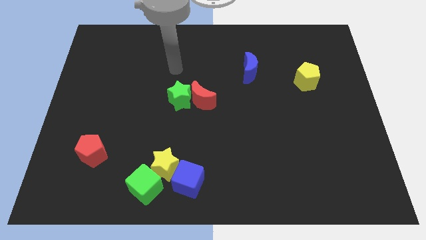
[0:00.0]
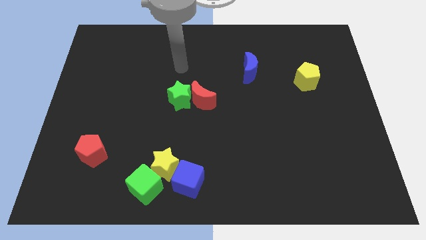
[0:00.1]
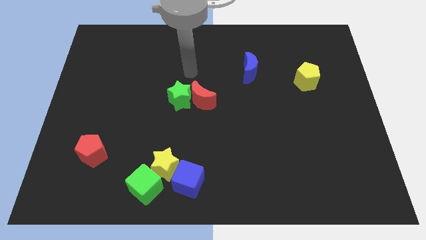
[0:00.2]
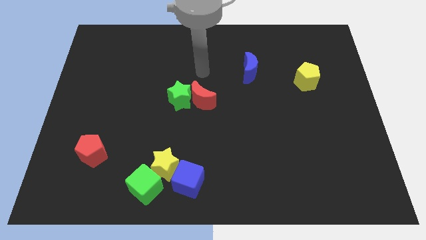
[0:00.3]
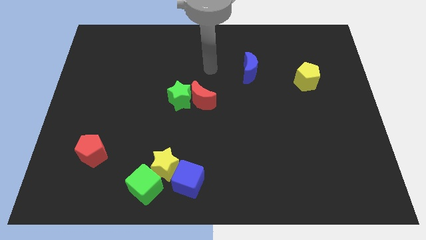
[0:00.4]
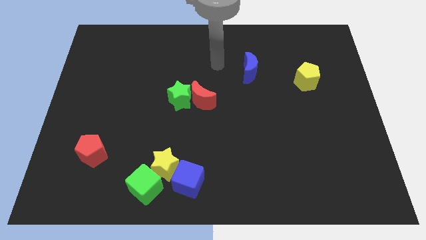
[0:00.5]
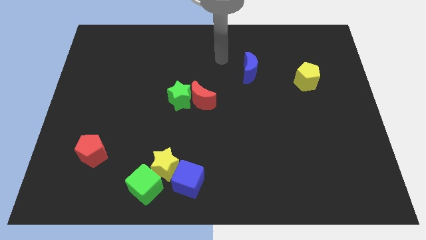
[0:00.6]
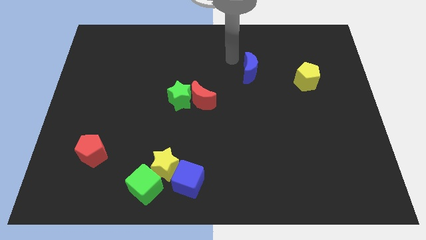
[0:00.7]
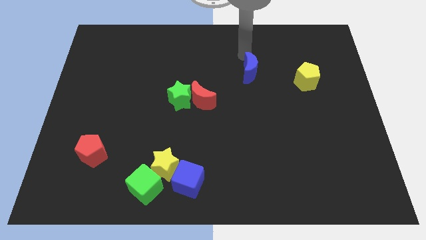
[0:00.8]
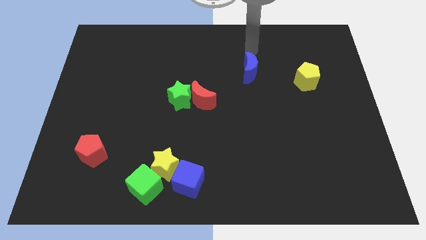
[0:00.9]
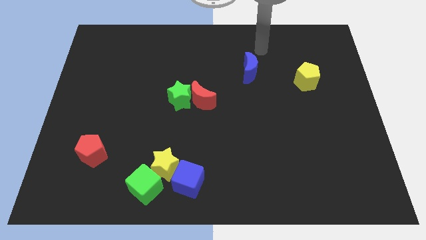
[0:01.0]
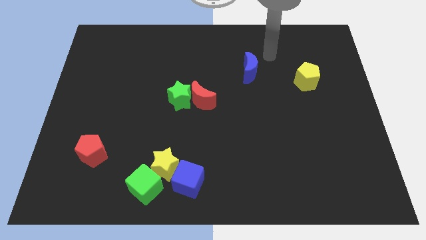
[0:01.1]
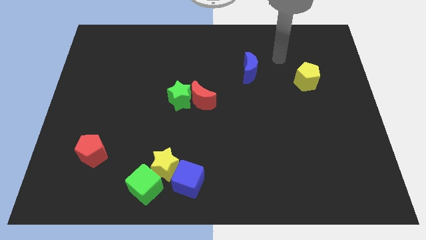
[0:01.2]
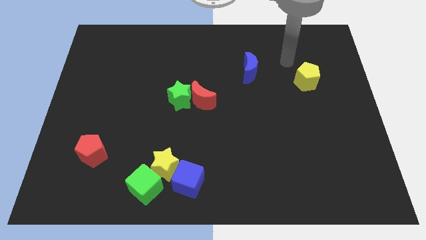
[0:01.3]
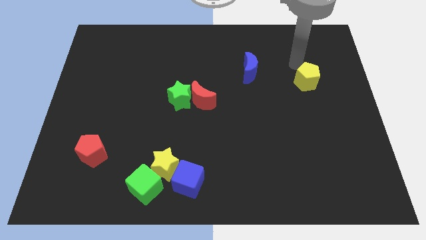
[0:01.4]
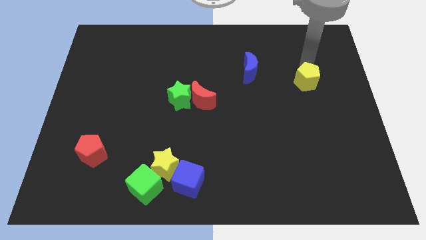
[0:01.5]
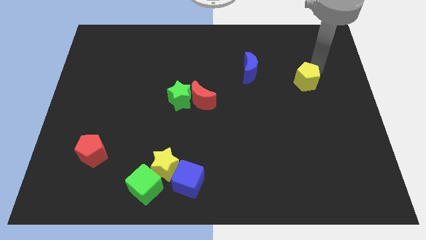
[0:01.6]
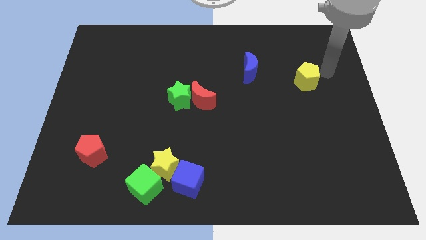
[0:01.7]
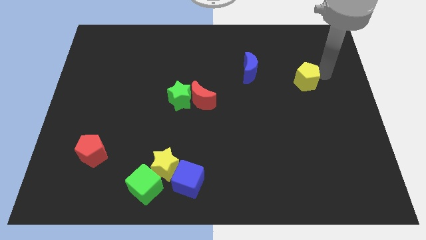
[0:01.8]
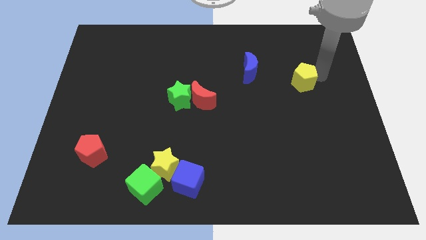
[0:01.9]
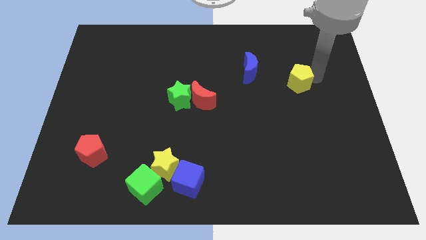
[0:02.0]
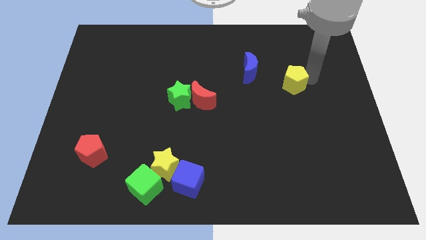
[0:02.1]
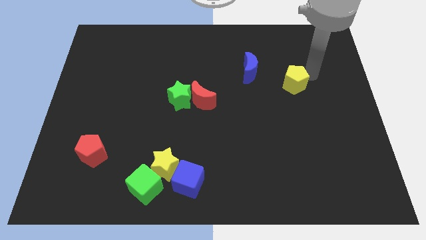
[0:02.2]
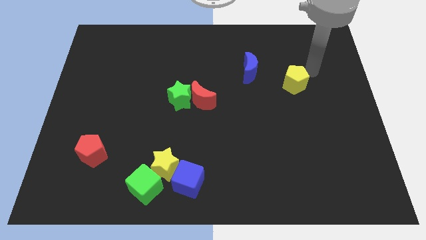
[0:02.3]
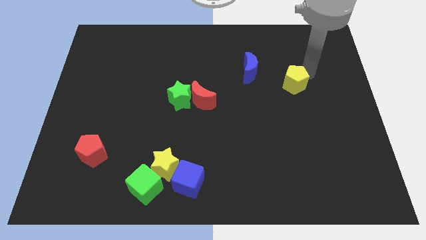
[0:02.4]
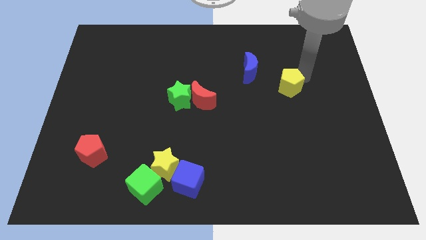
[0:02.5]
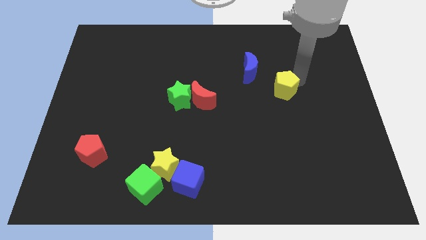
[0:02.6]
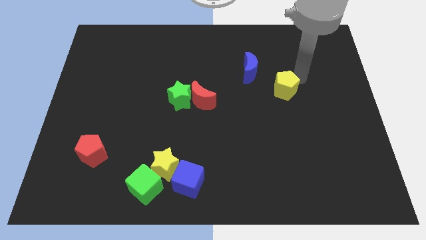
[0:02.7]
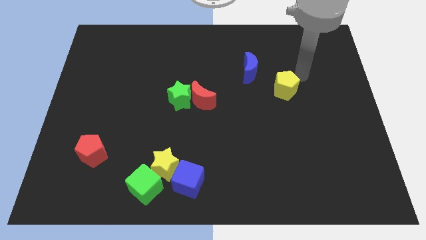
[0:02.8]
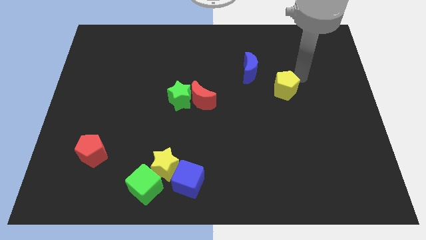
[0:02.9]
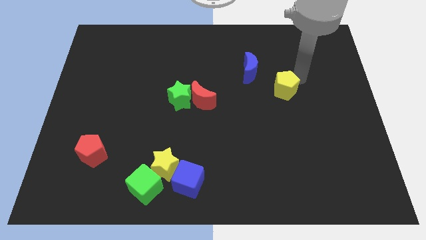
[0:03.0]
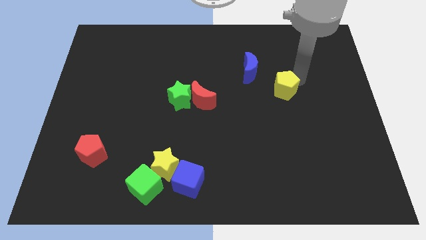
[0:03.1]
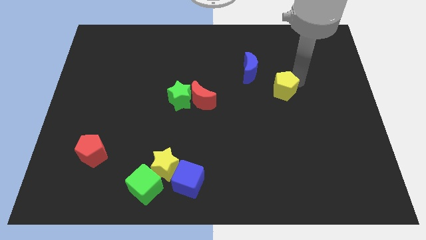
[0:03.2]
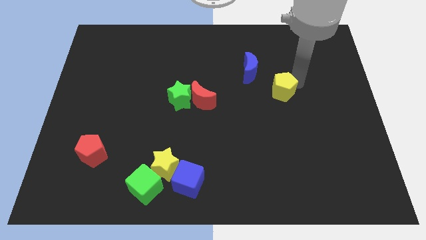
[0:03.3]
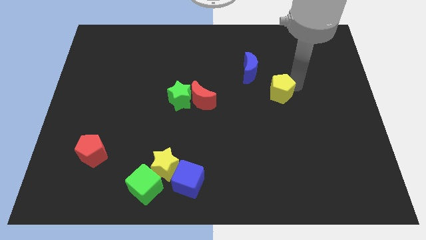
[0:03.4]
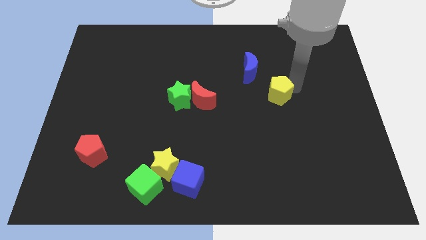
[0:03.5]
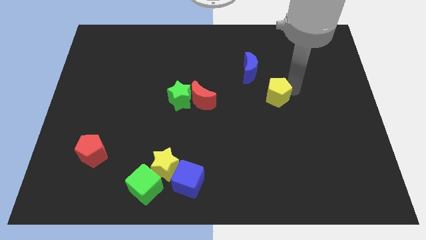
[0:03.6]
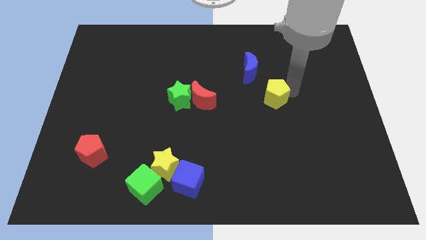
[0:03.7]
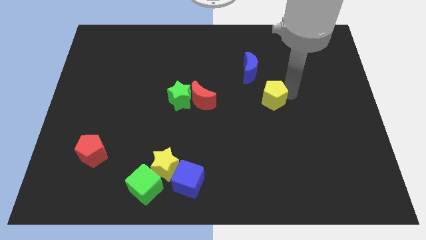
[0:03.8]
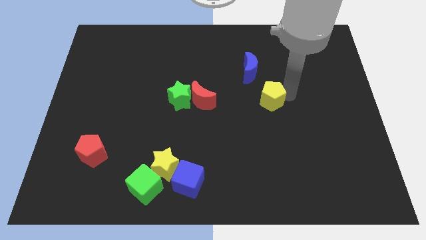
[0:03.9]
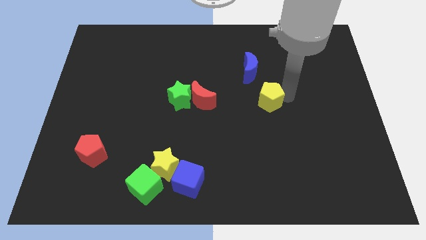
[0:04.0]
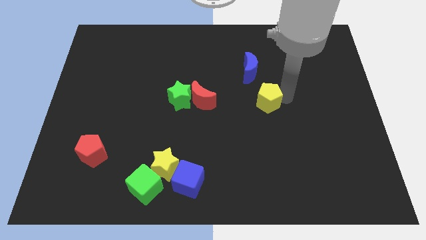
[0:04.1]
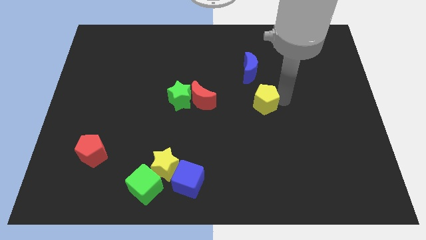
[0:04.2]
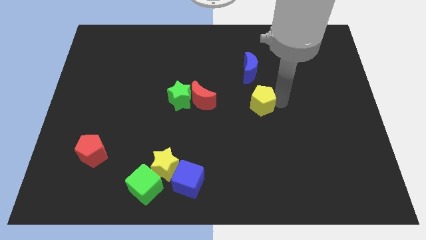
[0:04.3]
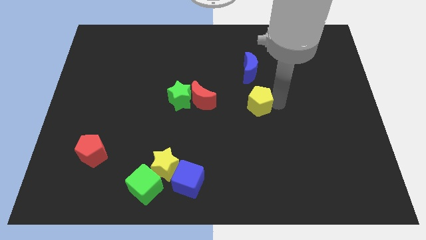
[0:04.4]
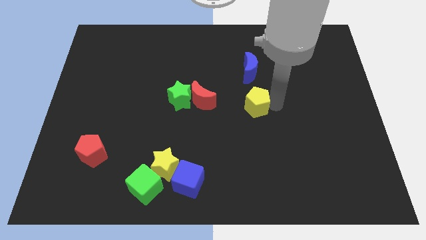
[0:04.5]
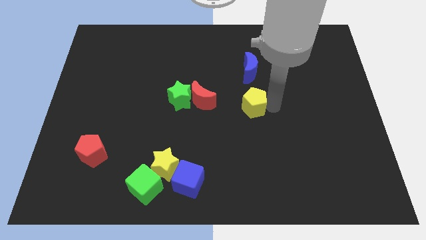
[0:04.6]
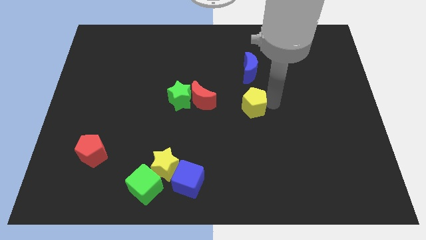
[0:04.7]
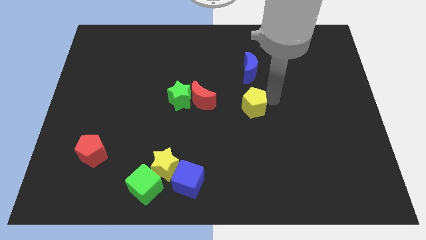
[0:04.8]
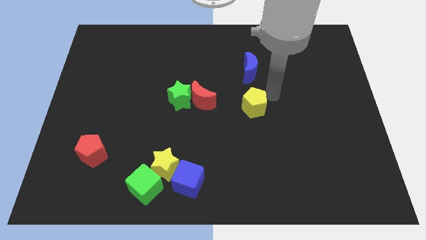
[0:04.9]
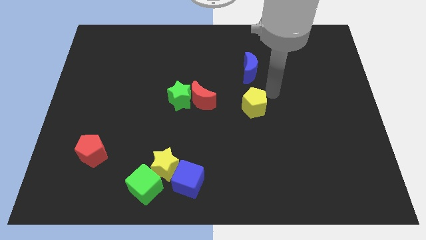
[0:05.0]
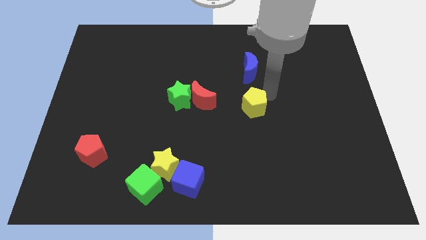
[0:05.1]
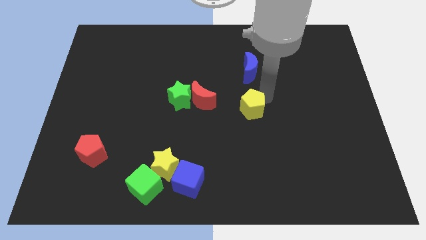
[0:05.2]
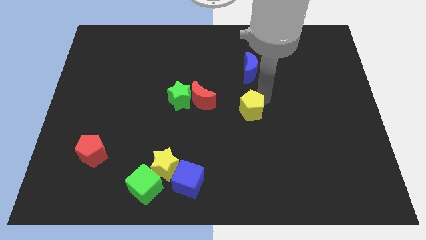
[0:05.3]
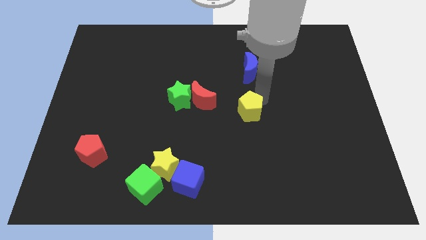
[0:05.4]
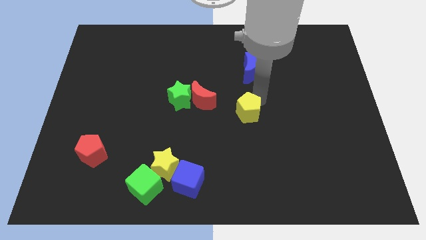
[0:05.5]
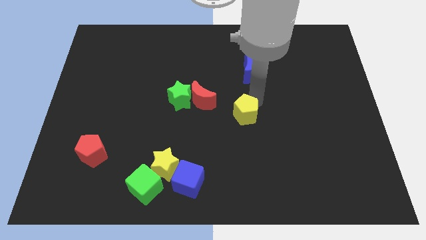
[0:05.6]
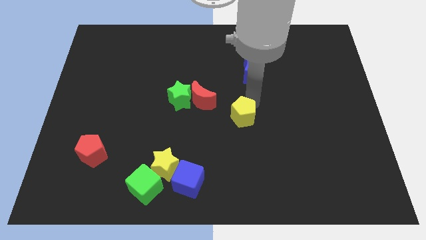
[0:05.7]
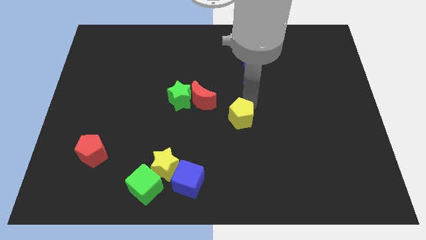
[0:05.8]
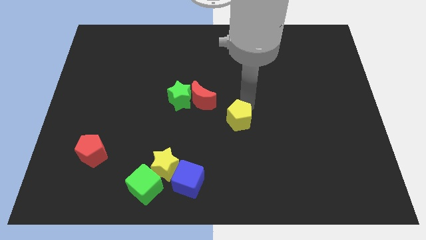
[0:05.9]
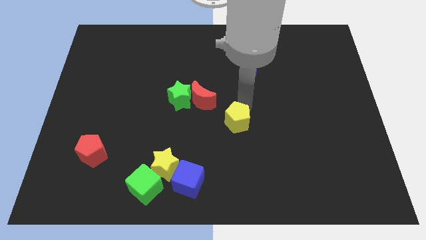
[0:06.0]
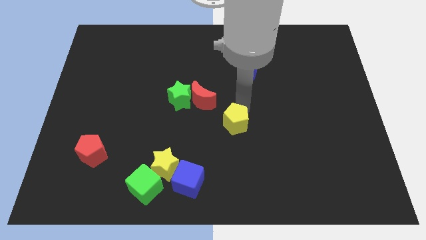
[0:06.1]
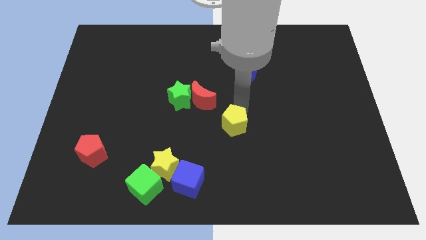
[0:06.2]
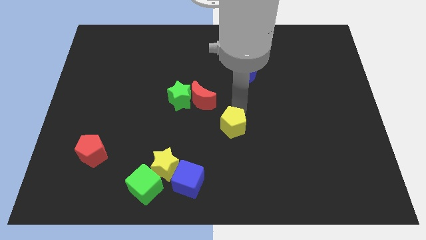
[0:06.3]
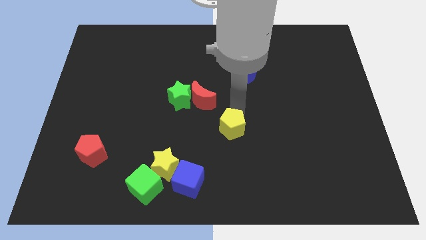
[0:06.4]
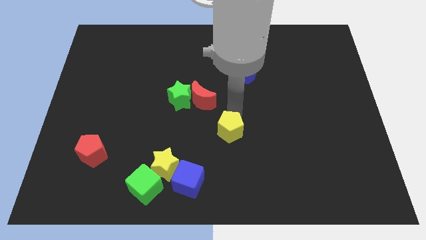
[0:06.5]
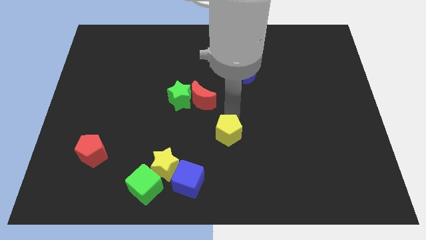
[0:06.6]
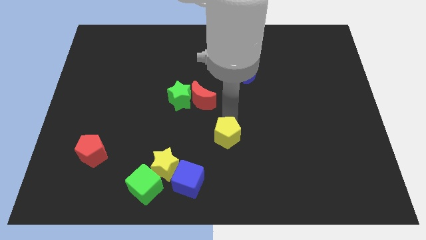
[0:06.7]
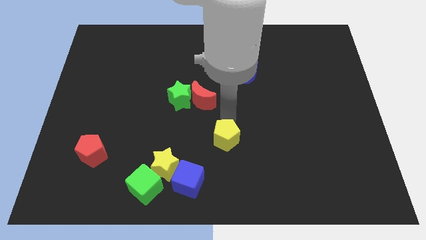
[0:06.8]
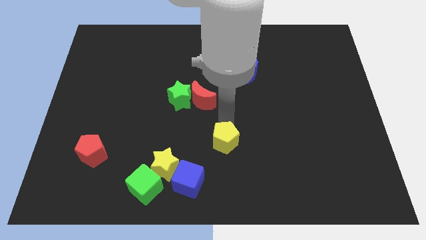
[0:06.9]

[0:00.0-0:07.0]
push the yellow pentagon to the top right side of the blue cube

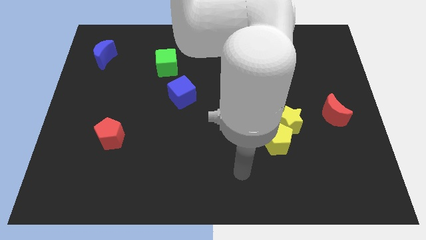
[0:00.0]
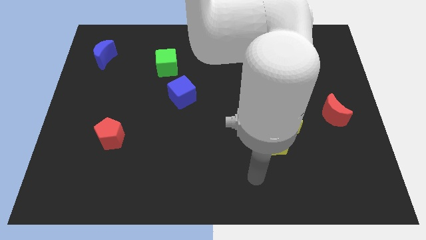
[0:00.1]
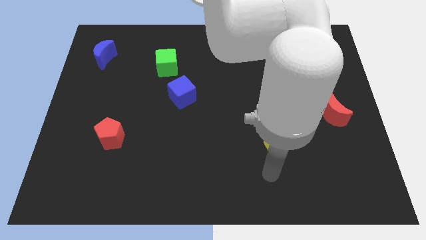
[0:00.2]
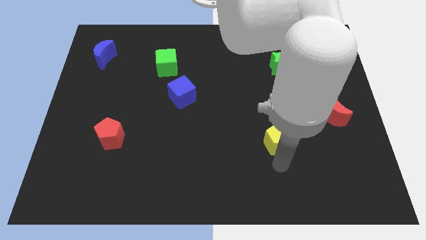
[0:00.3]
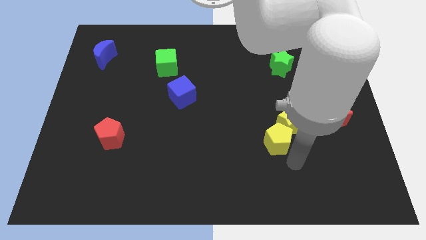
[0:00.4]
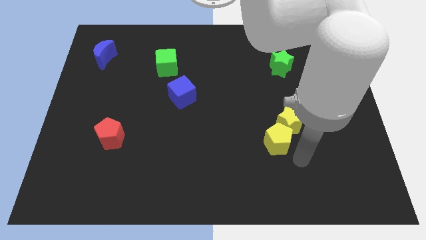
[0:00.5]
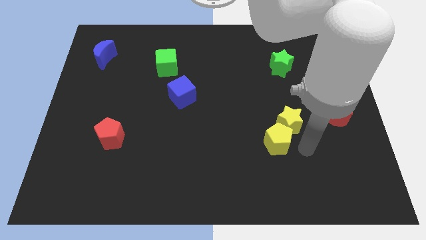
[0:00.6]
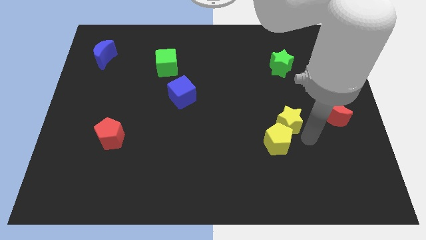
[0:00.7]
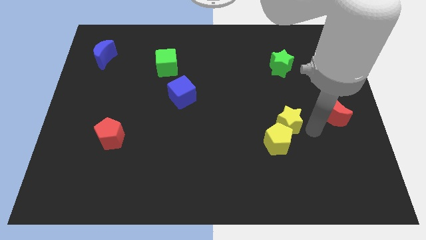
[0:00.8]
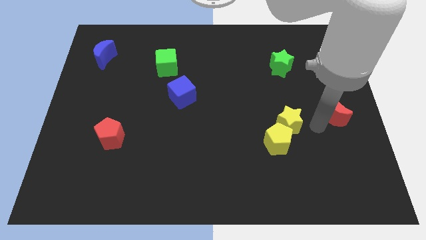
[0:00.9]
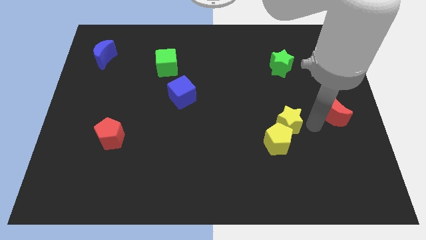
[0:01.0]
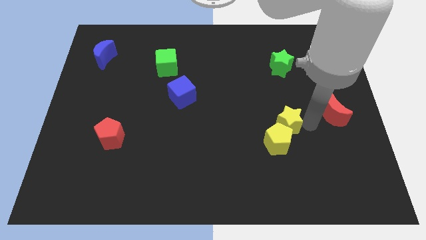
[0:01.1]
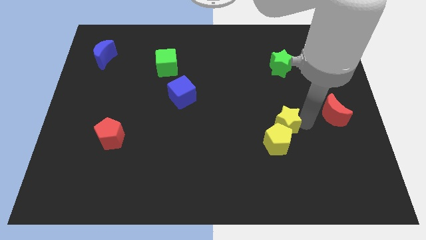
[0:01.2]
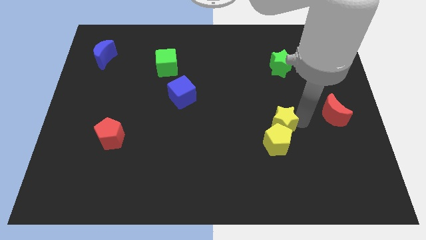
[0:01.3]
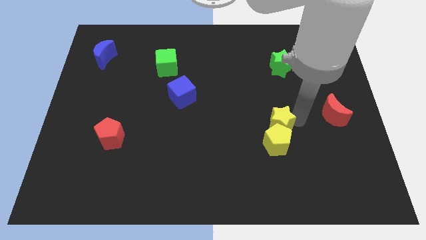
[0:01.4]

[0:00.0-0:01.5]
move the yellow star diagonally up and to the left of the yellow pentagon
